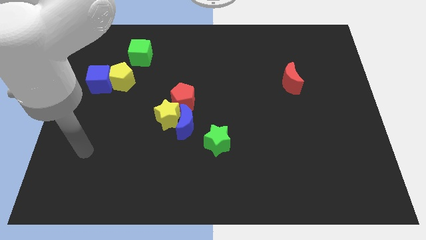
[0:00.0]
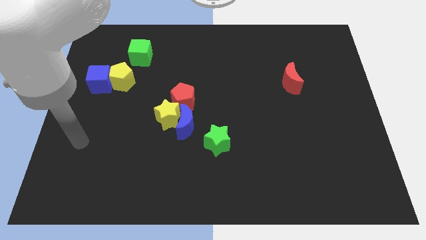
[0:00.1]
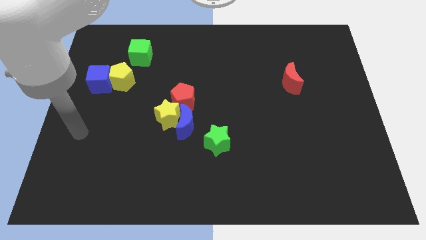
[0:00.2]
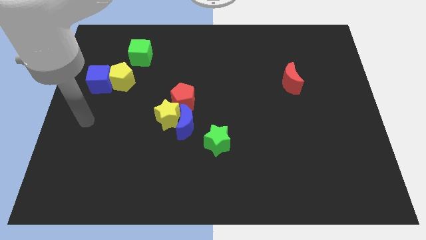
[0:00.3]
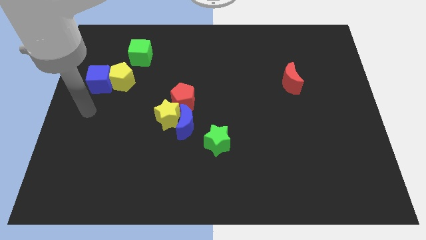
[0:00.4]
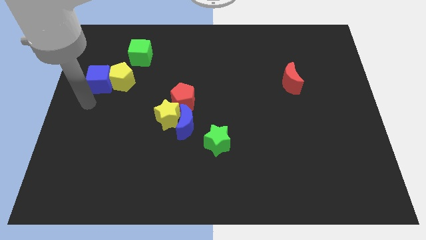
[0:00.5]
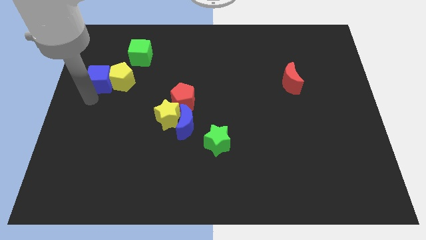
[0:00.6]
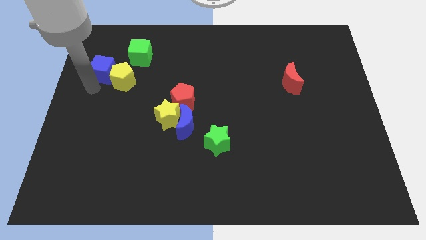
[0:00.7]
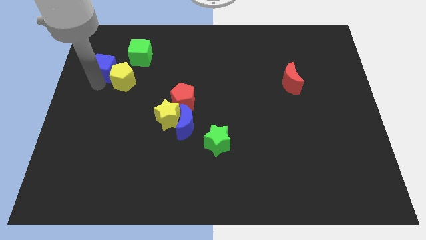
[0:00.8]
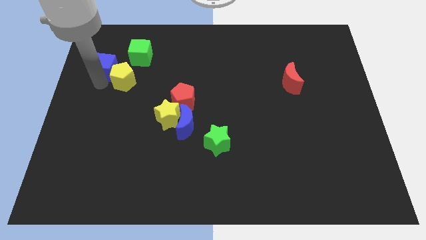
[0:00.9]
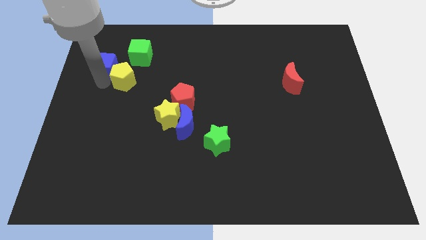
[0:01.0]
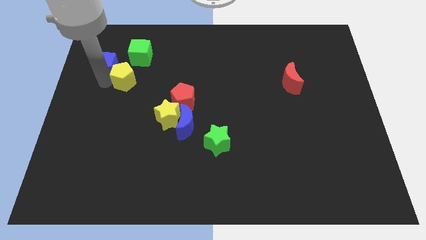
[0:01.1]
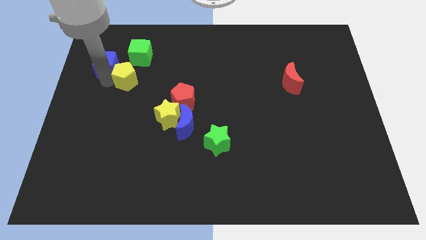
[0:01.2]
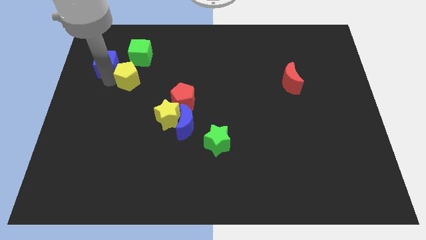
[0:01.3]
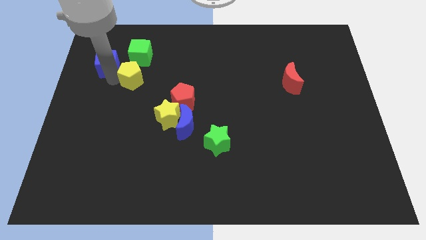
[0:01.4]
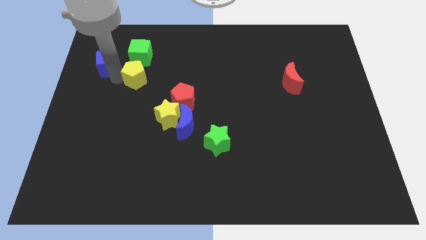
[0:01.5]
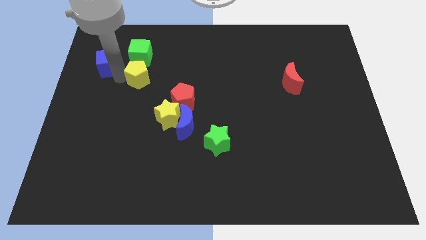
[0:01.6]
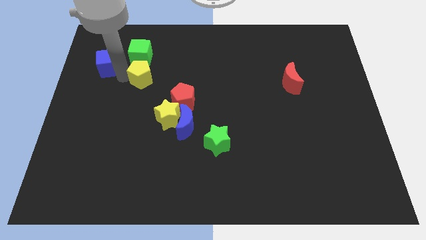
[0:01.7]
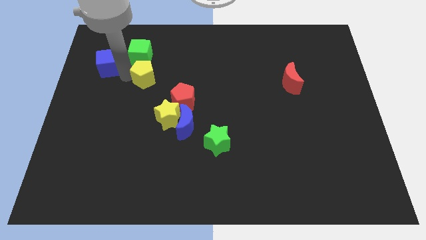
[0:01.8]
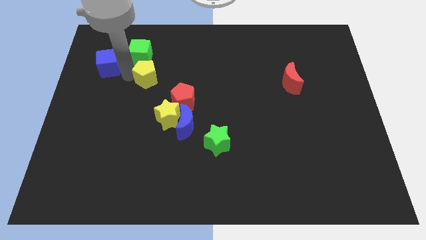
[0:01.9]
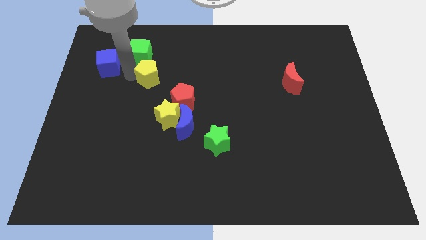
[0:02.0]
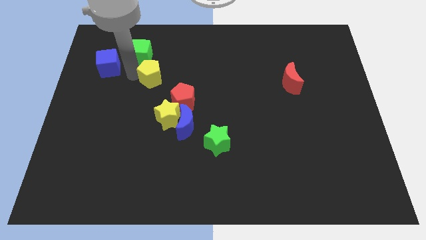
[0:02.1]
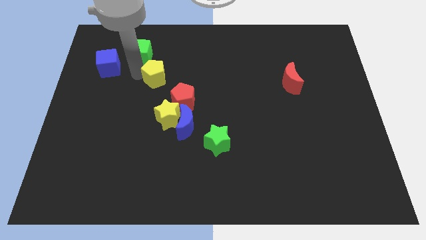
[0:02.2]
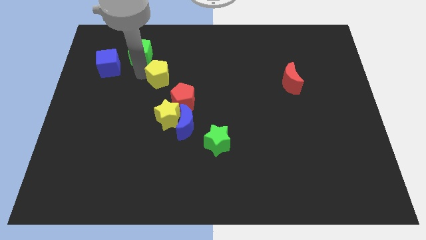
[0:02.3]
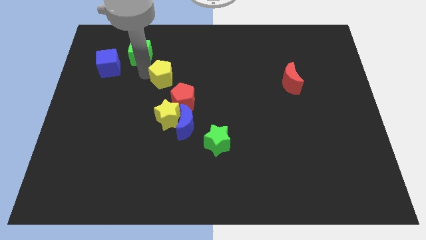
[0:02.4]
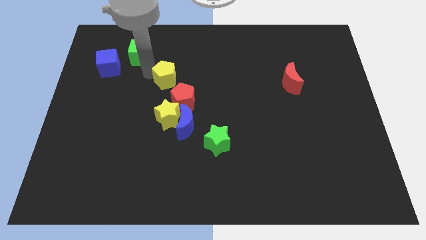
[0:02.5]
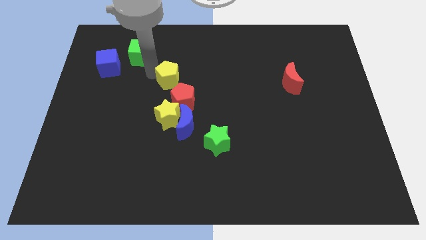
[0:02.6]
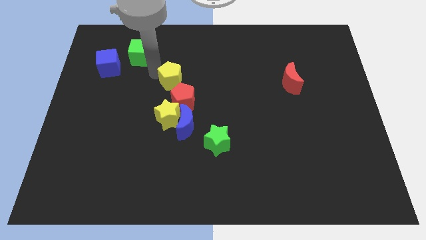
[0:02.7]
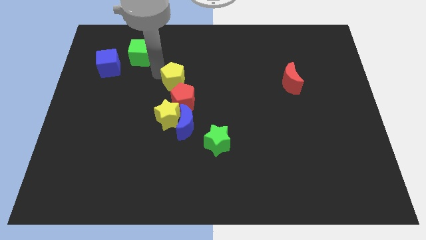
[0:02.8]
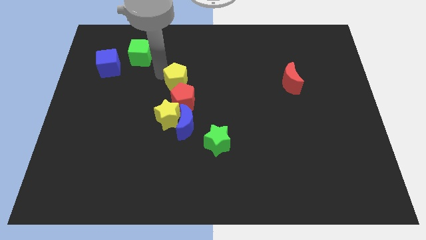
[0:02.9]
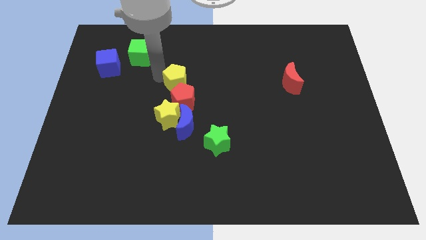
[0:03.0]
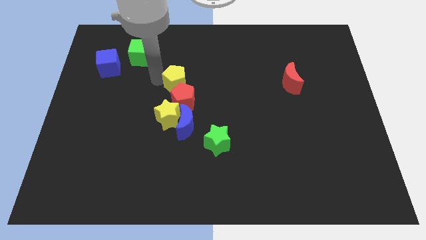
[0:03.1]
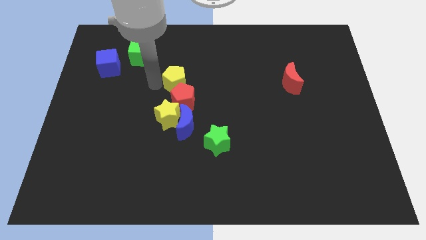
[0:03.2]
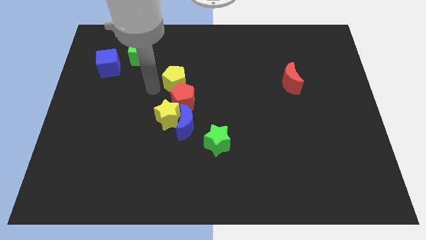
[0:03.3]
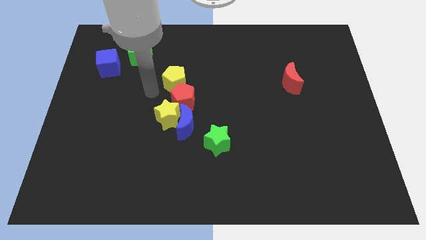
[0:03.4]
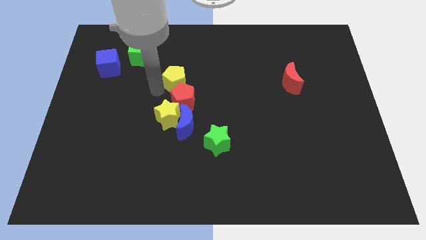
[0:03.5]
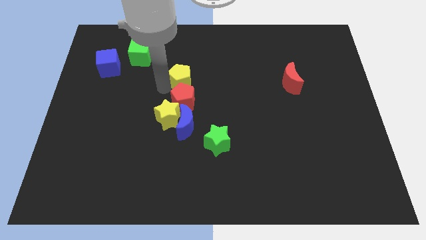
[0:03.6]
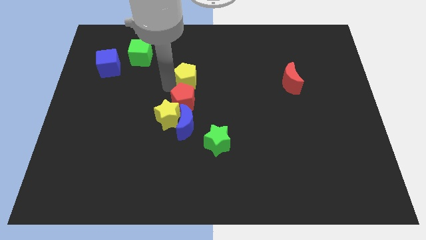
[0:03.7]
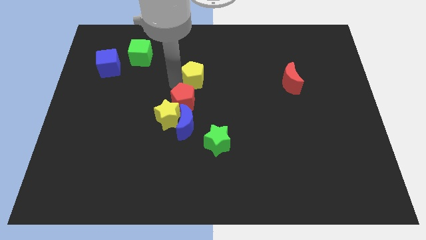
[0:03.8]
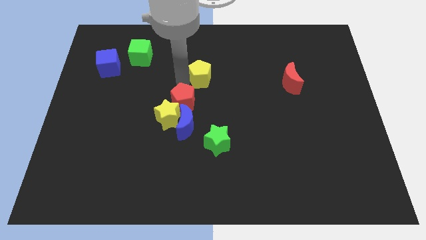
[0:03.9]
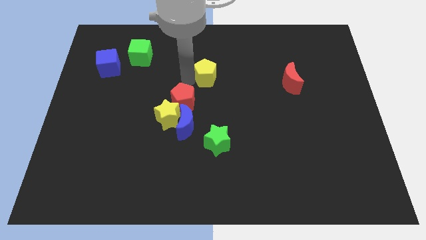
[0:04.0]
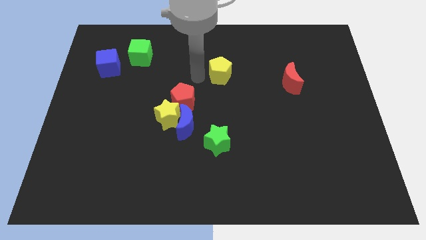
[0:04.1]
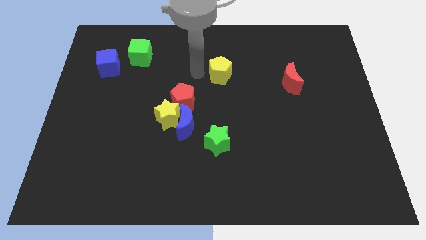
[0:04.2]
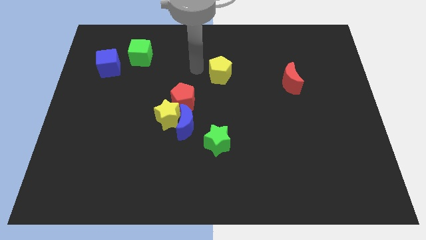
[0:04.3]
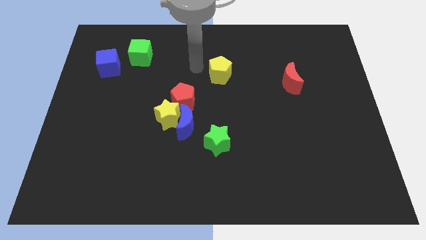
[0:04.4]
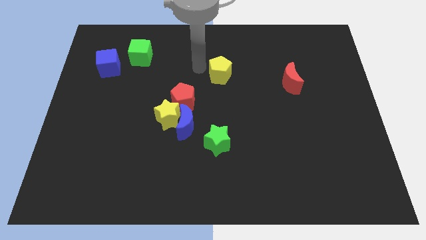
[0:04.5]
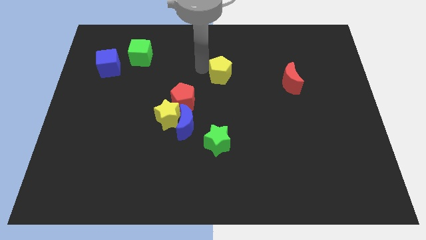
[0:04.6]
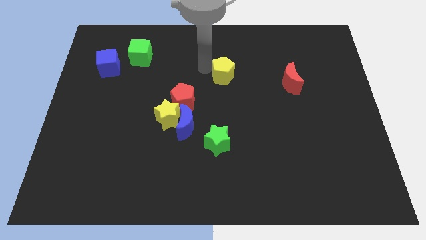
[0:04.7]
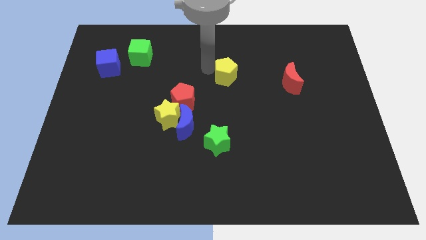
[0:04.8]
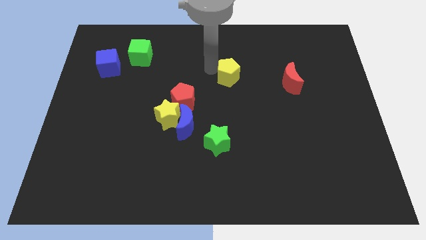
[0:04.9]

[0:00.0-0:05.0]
push the yellow pentagon to the left side of the red moon

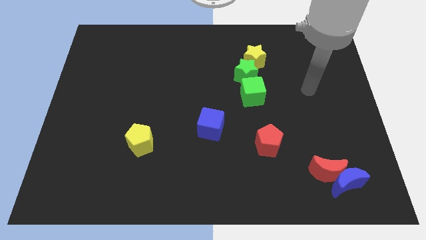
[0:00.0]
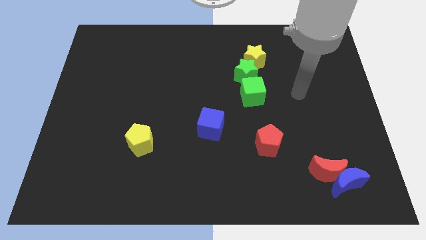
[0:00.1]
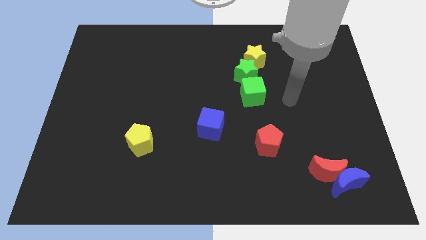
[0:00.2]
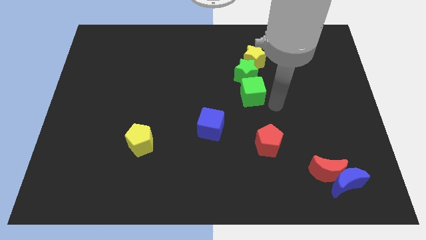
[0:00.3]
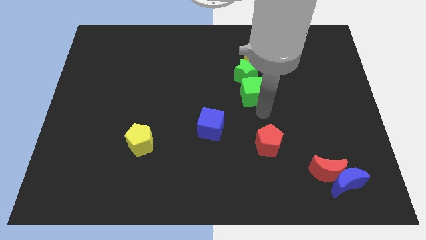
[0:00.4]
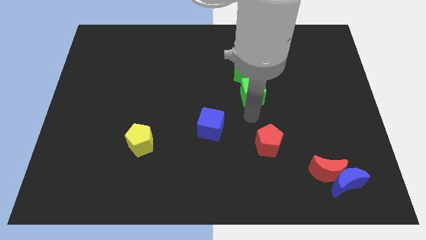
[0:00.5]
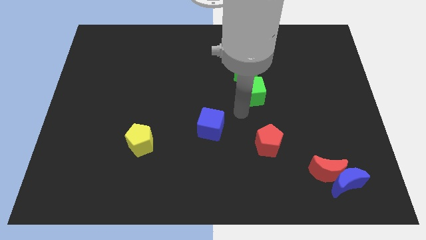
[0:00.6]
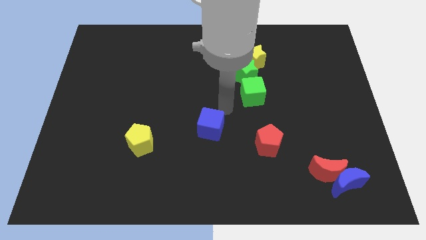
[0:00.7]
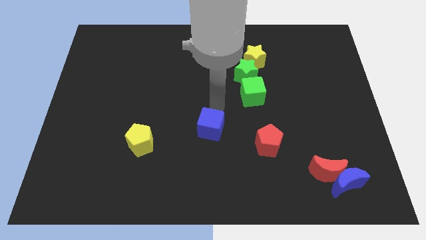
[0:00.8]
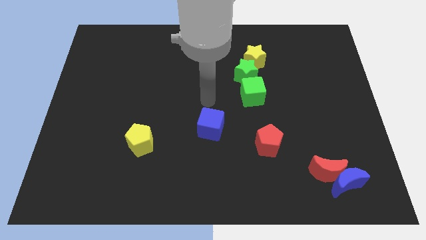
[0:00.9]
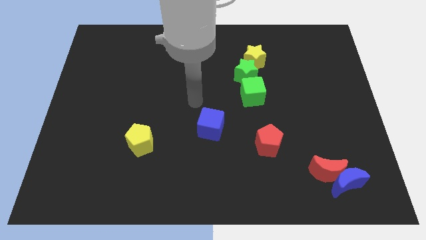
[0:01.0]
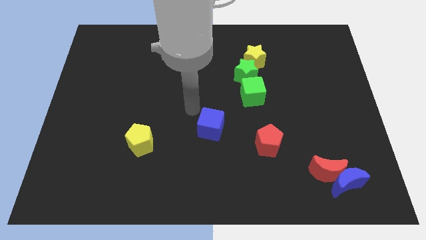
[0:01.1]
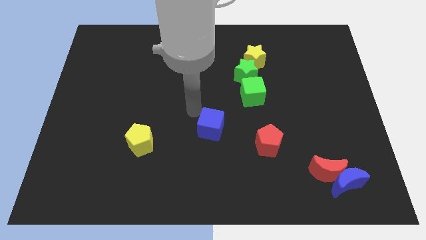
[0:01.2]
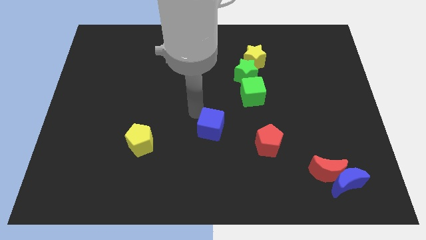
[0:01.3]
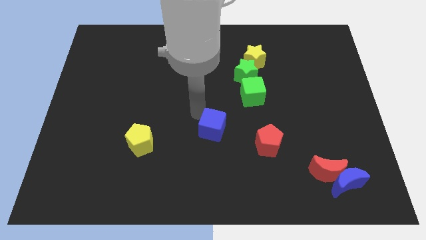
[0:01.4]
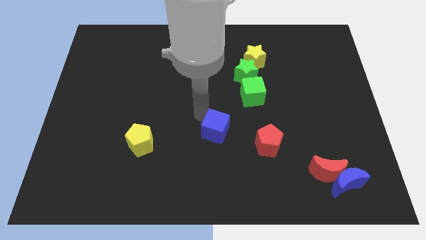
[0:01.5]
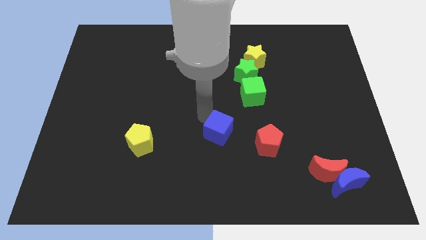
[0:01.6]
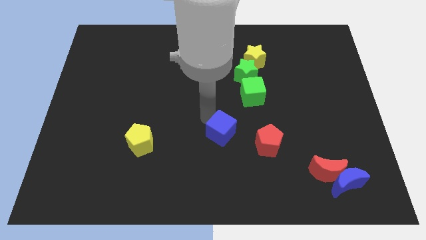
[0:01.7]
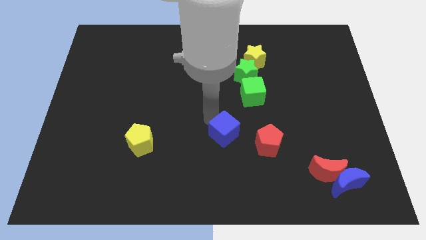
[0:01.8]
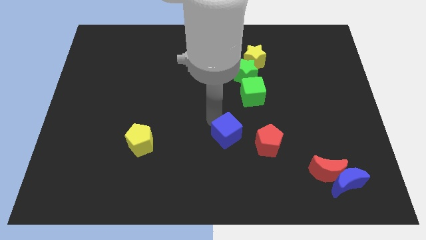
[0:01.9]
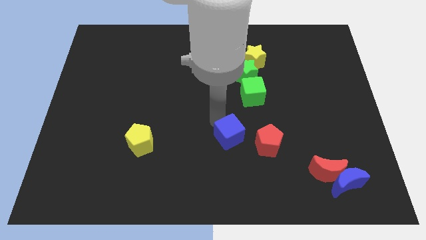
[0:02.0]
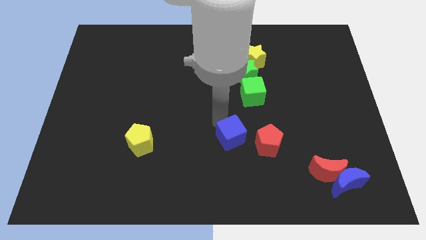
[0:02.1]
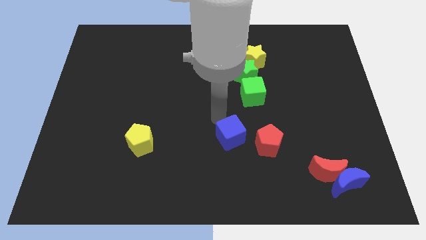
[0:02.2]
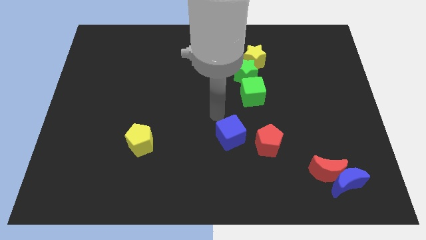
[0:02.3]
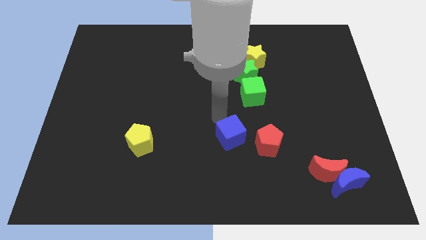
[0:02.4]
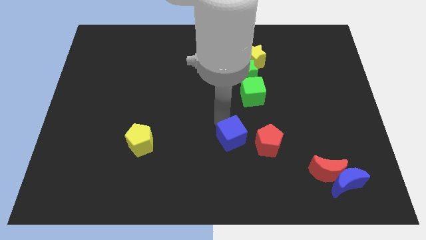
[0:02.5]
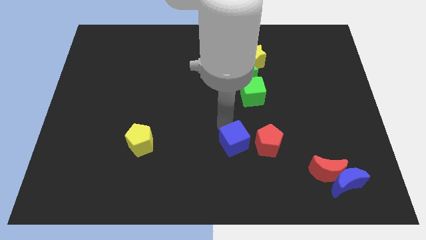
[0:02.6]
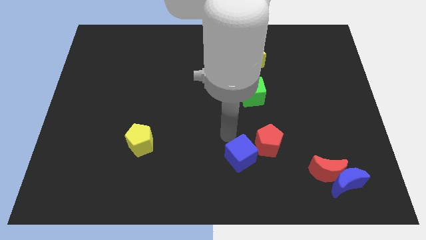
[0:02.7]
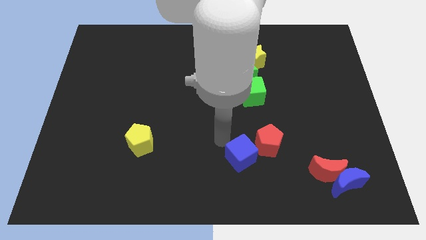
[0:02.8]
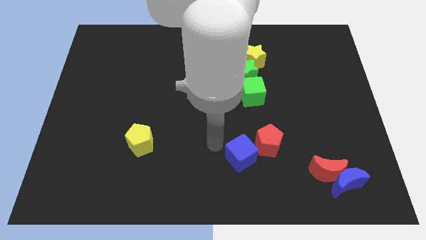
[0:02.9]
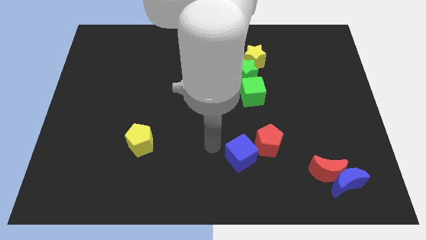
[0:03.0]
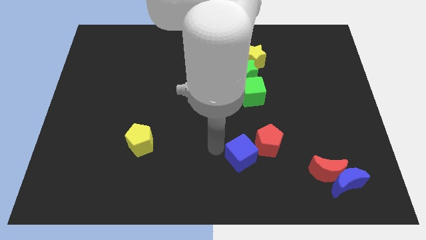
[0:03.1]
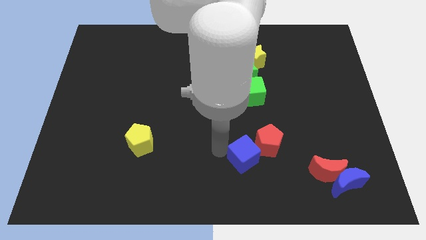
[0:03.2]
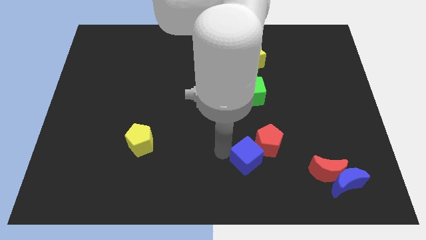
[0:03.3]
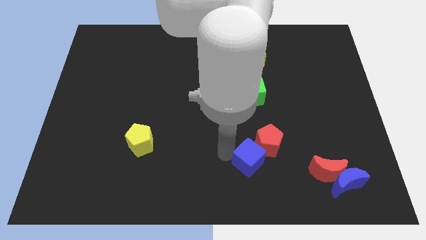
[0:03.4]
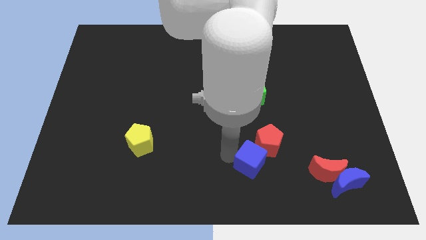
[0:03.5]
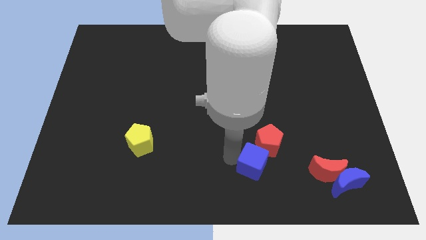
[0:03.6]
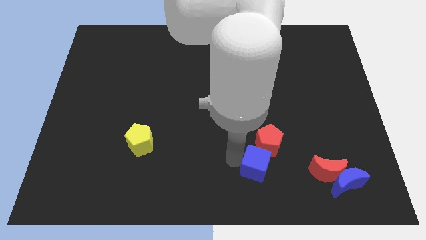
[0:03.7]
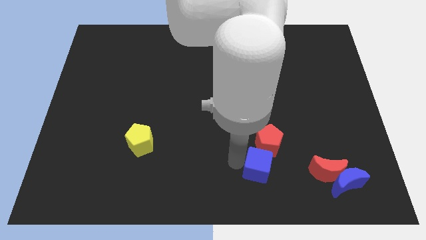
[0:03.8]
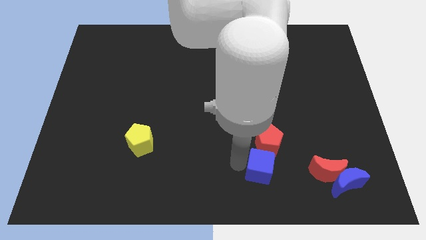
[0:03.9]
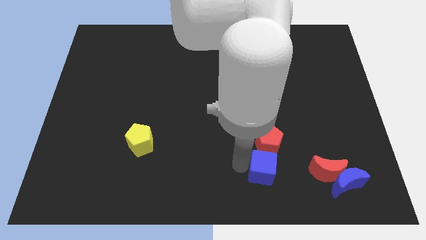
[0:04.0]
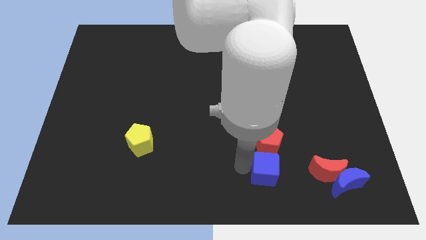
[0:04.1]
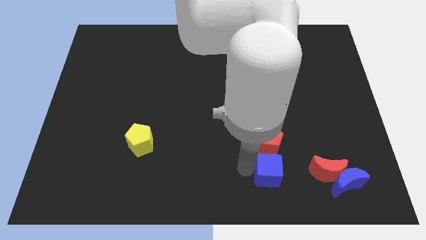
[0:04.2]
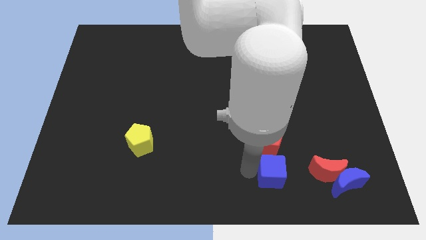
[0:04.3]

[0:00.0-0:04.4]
push the blue cube diagonally down and to the right of the red pentagon
